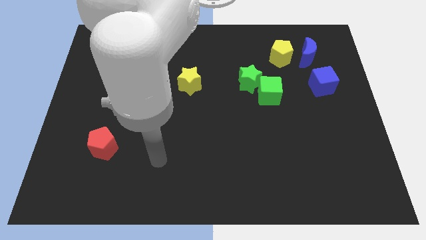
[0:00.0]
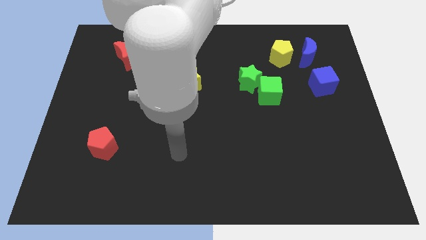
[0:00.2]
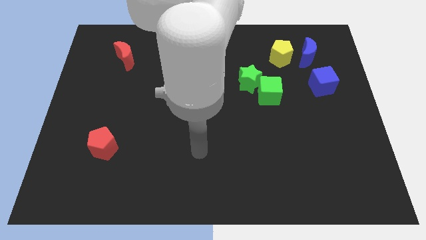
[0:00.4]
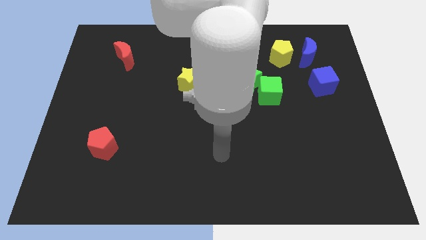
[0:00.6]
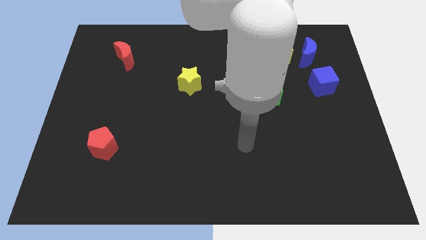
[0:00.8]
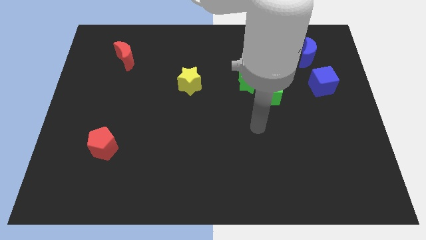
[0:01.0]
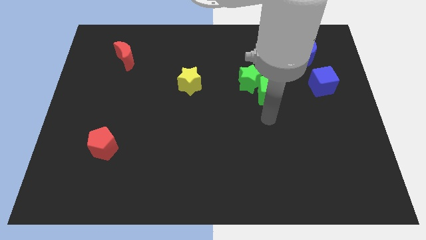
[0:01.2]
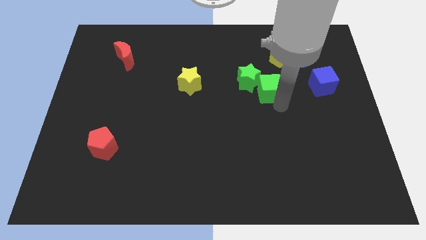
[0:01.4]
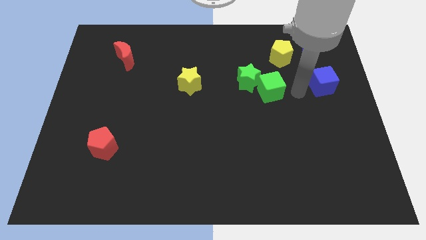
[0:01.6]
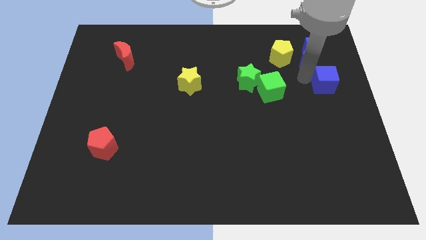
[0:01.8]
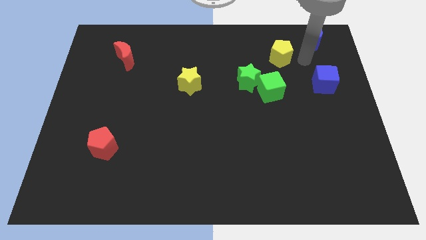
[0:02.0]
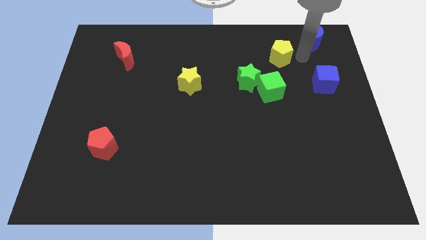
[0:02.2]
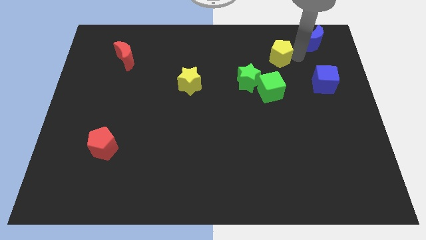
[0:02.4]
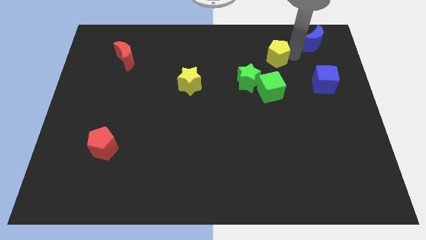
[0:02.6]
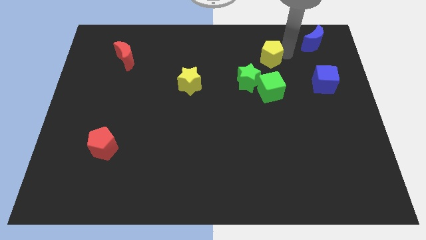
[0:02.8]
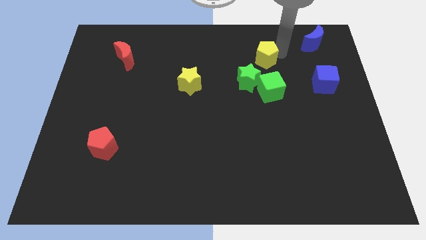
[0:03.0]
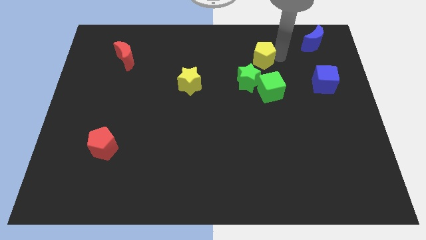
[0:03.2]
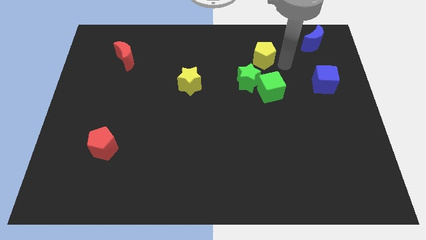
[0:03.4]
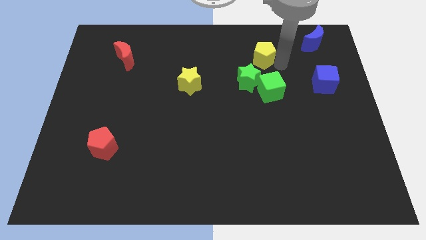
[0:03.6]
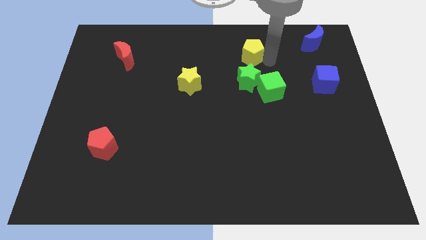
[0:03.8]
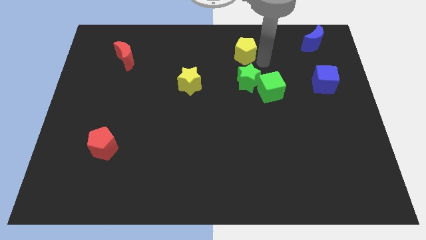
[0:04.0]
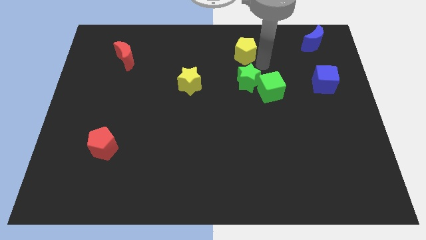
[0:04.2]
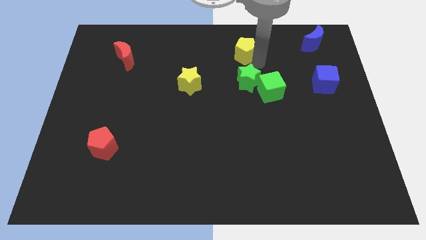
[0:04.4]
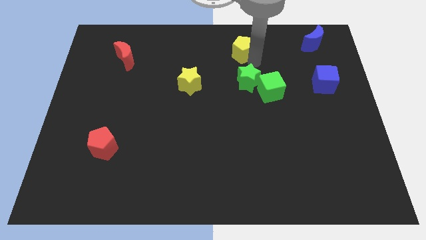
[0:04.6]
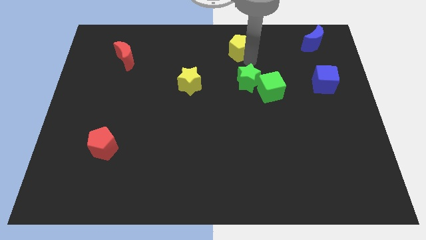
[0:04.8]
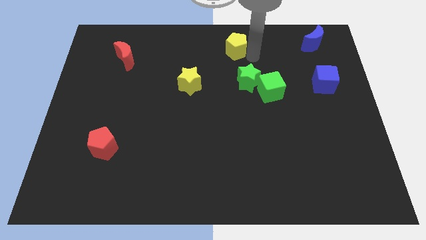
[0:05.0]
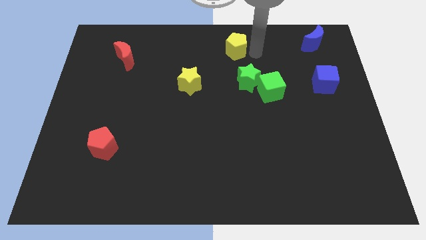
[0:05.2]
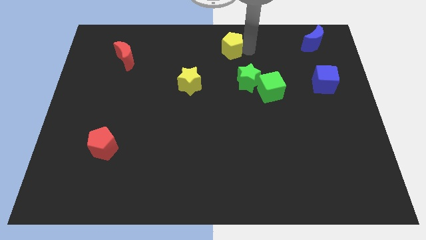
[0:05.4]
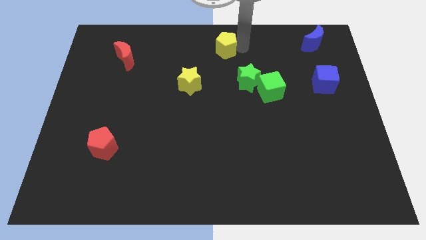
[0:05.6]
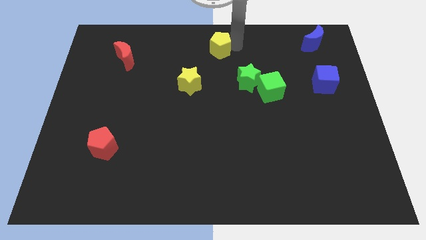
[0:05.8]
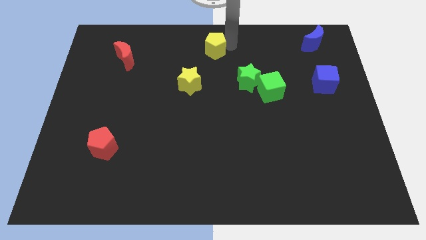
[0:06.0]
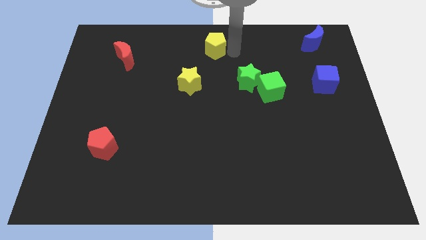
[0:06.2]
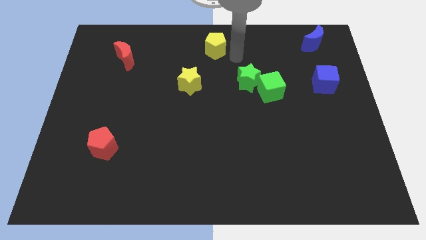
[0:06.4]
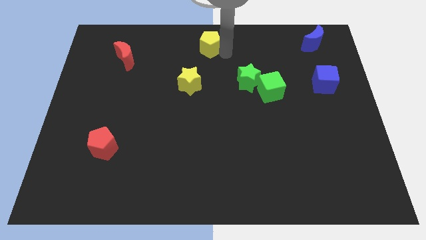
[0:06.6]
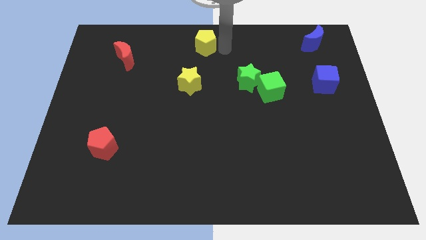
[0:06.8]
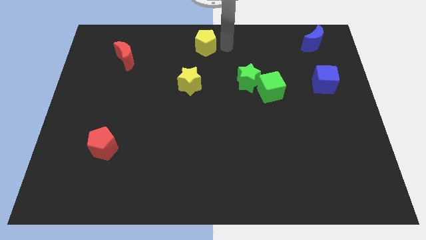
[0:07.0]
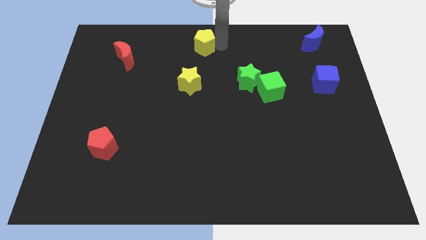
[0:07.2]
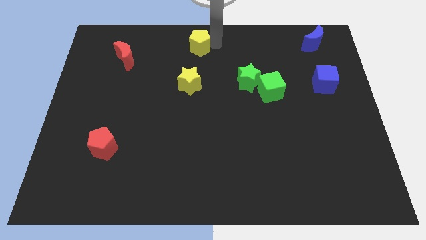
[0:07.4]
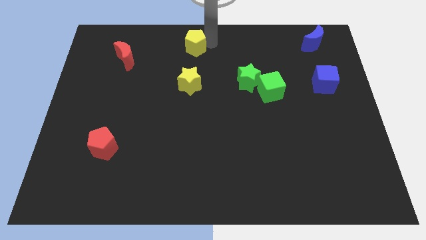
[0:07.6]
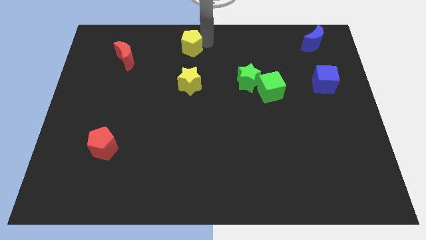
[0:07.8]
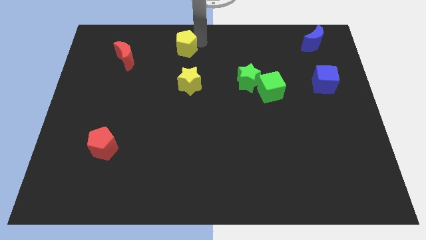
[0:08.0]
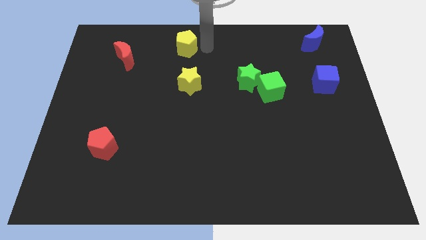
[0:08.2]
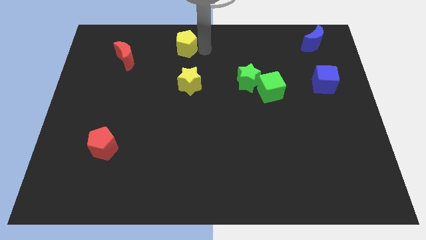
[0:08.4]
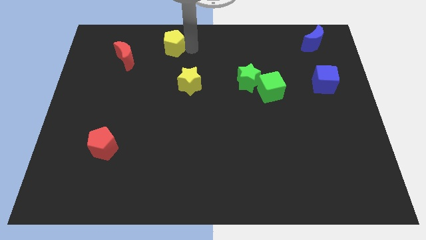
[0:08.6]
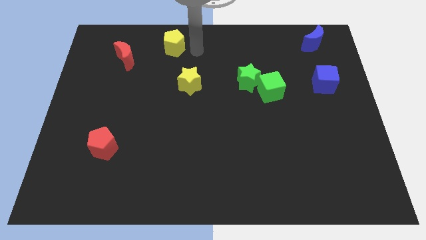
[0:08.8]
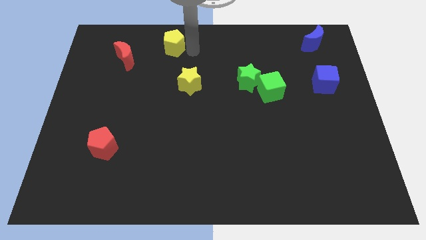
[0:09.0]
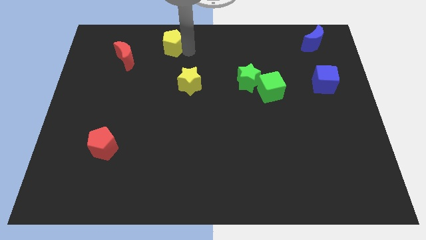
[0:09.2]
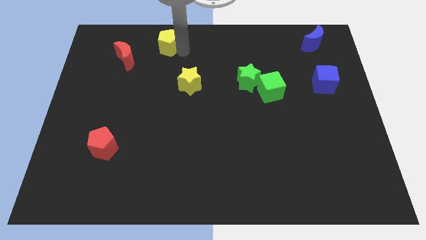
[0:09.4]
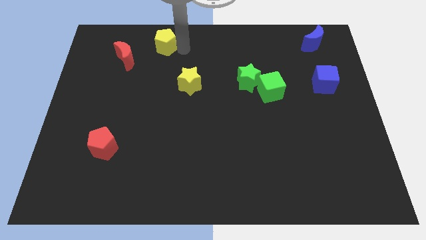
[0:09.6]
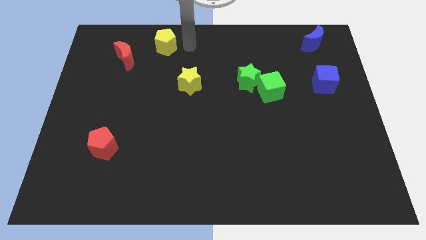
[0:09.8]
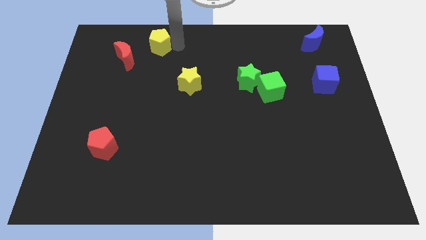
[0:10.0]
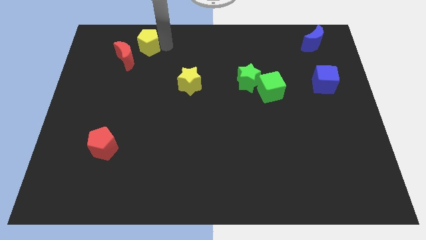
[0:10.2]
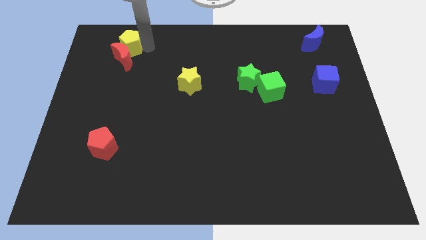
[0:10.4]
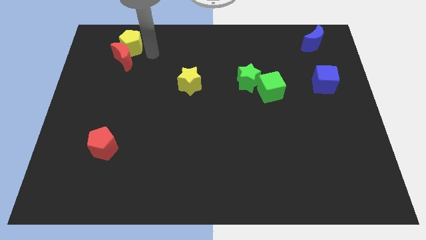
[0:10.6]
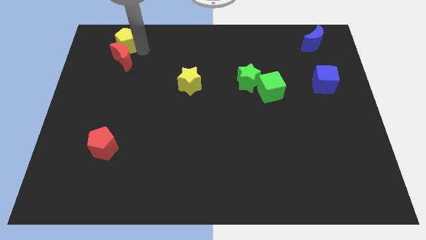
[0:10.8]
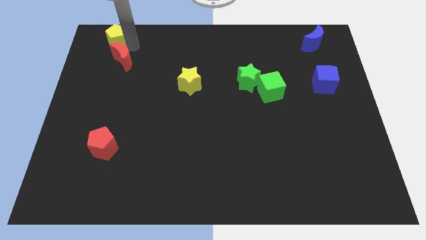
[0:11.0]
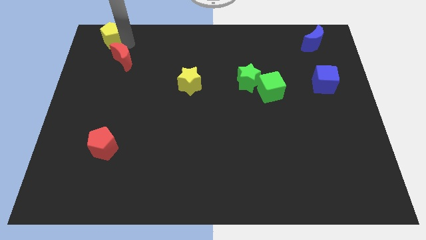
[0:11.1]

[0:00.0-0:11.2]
push the yellow pentagon to the upper left corner

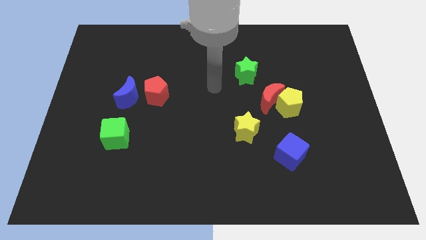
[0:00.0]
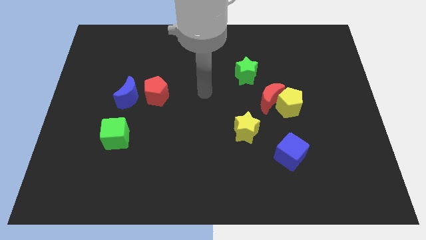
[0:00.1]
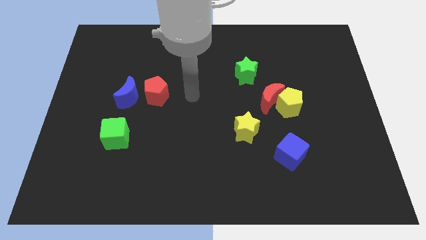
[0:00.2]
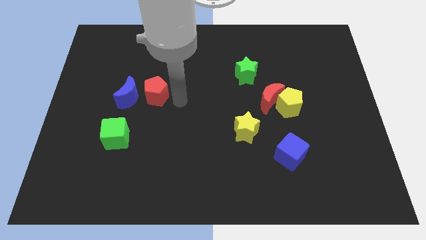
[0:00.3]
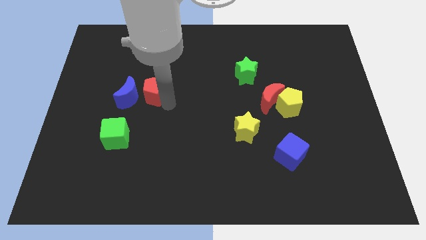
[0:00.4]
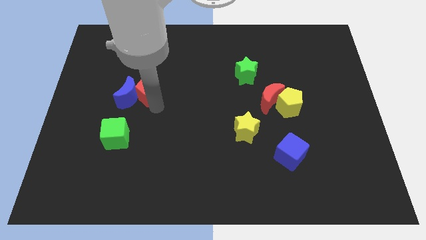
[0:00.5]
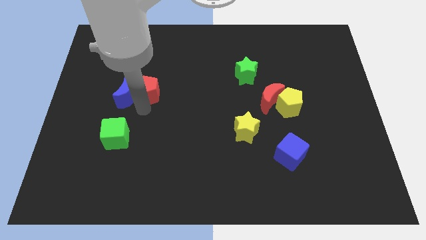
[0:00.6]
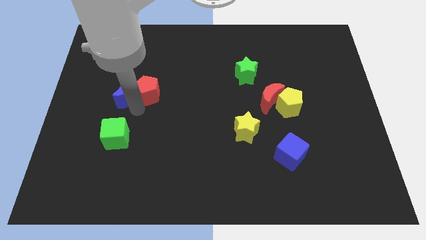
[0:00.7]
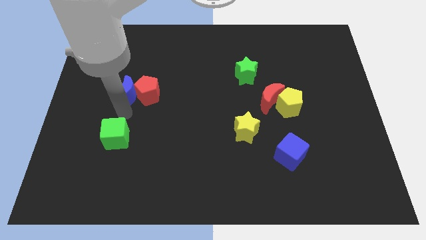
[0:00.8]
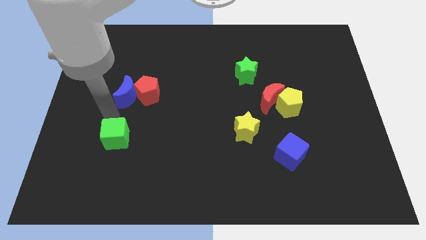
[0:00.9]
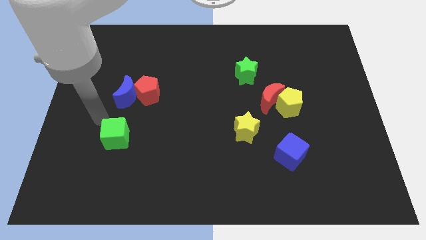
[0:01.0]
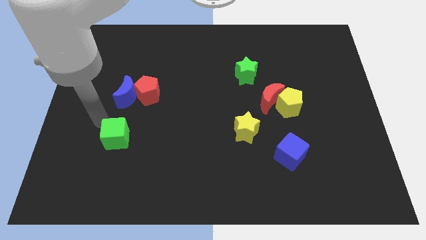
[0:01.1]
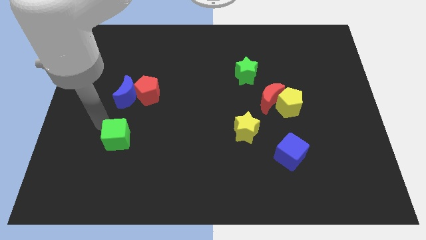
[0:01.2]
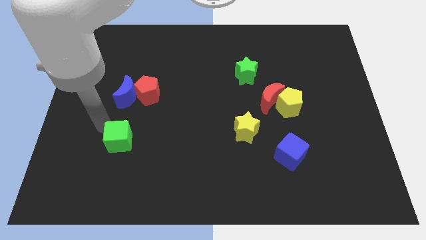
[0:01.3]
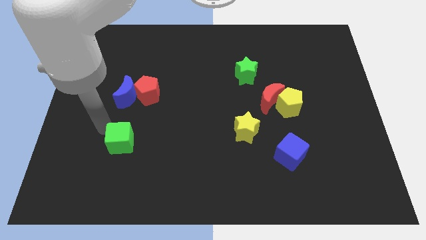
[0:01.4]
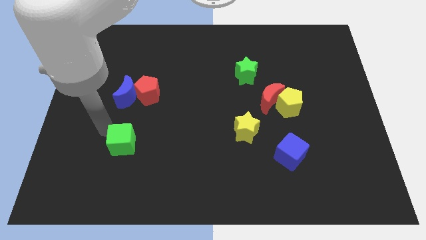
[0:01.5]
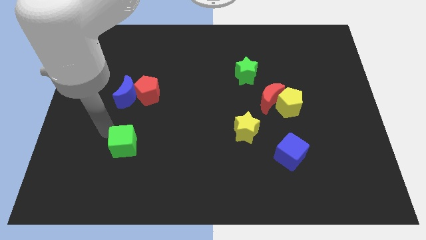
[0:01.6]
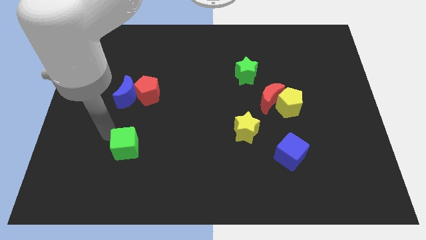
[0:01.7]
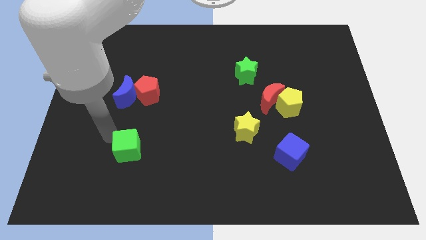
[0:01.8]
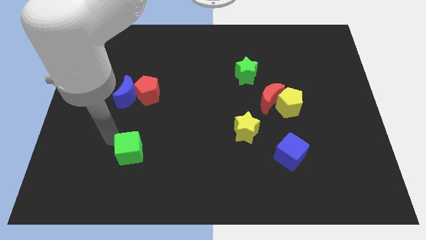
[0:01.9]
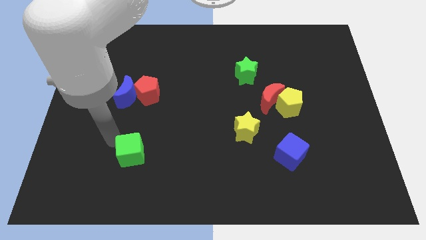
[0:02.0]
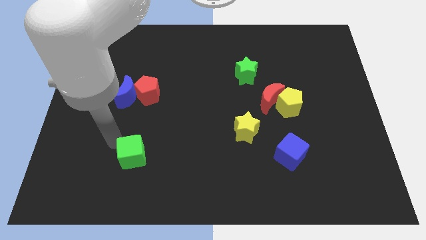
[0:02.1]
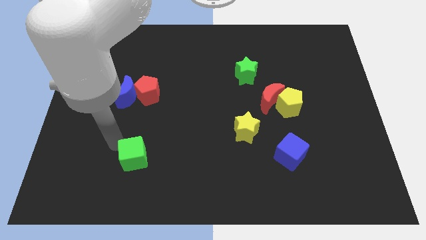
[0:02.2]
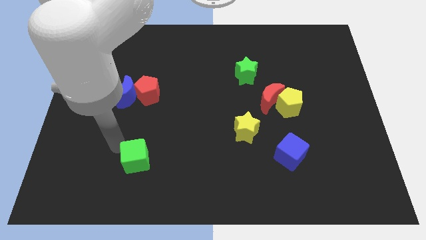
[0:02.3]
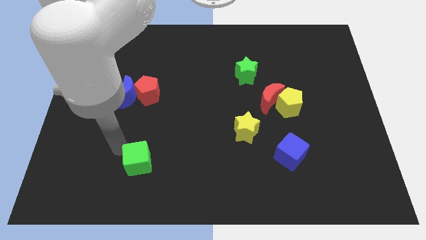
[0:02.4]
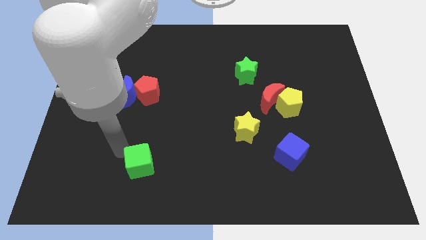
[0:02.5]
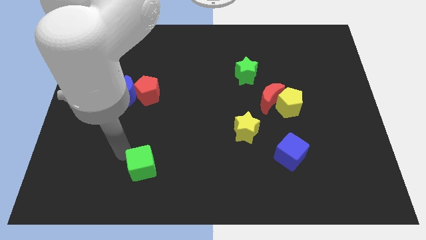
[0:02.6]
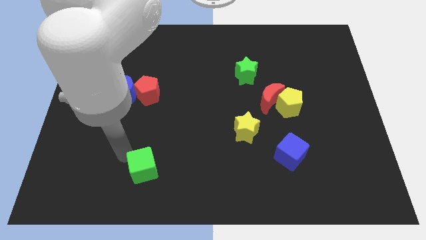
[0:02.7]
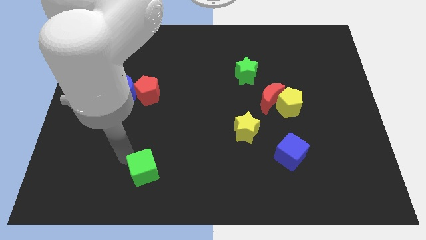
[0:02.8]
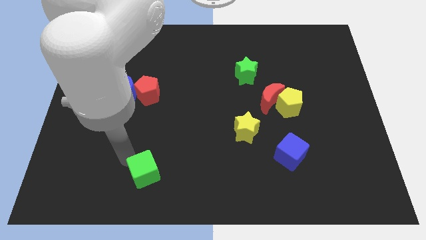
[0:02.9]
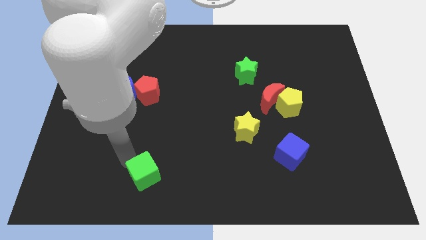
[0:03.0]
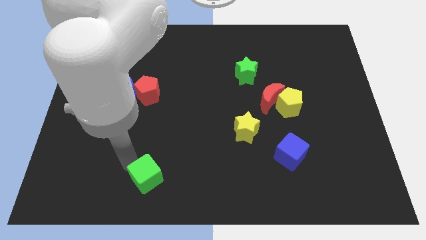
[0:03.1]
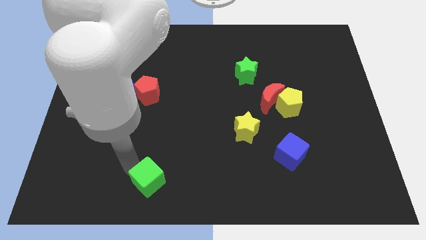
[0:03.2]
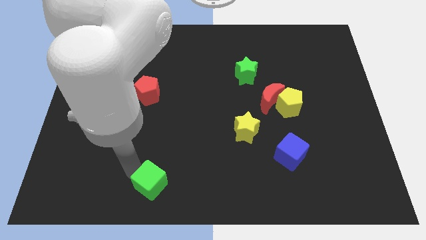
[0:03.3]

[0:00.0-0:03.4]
move the green cube to the bottom side
